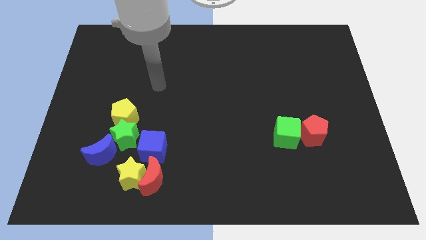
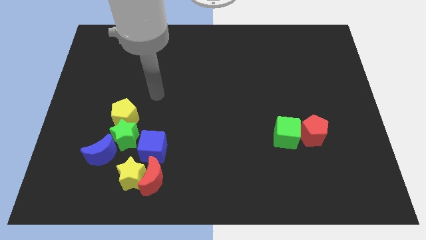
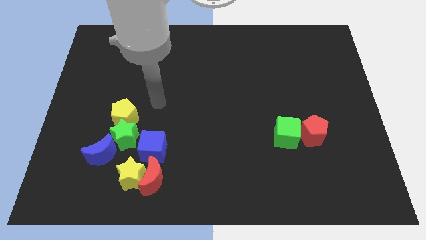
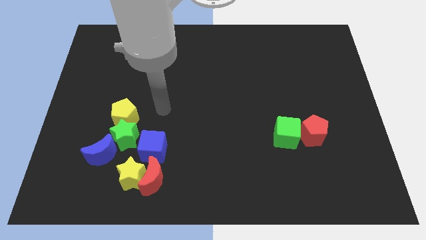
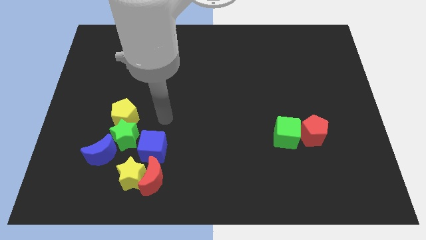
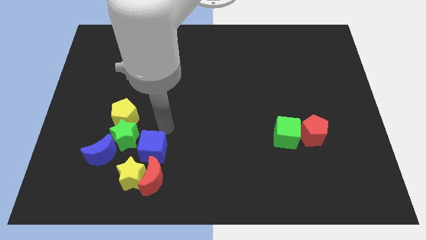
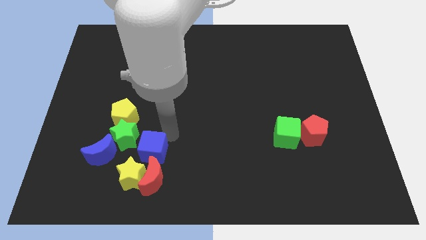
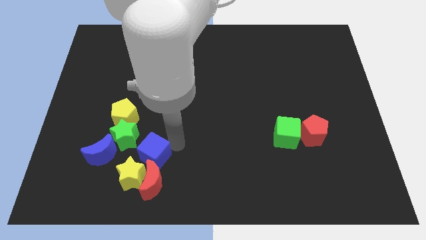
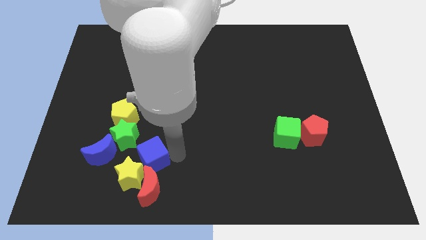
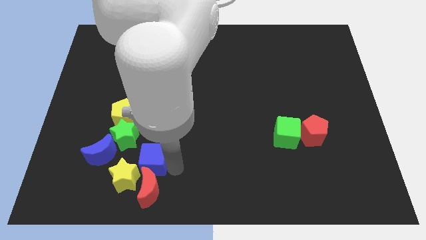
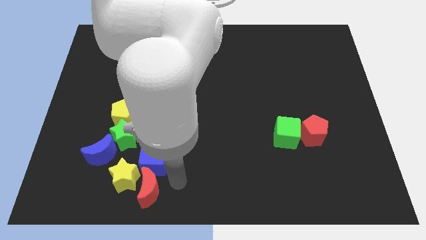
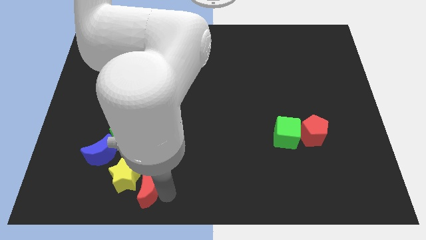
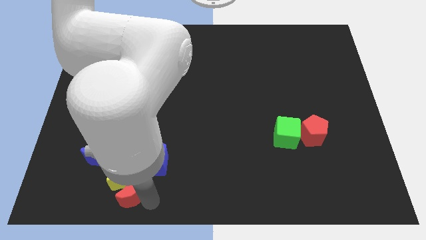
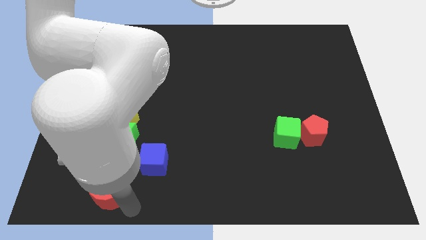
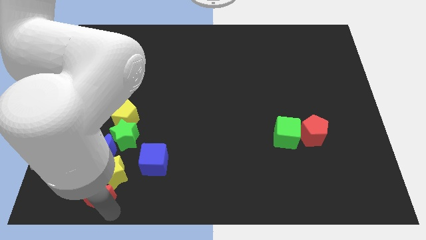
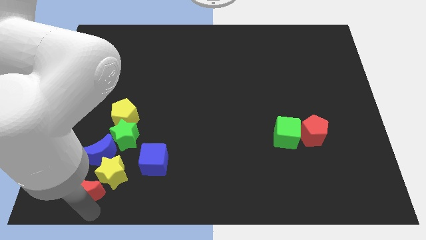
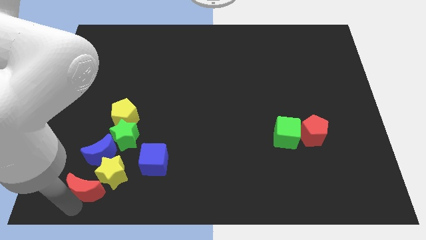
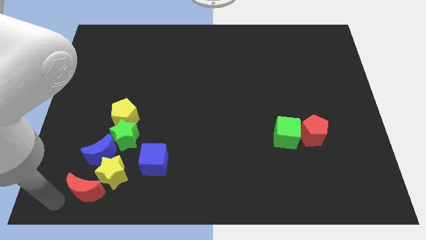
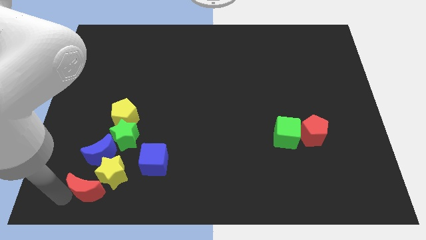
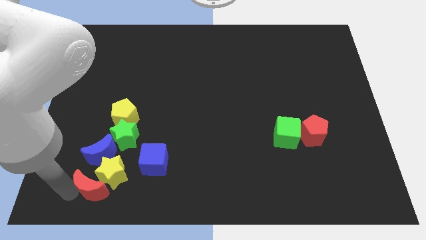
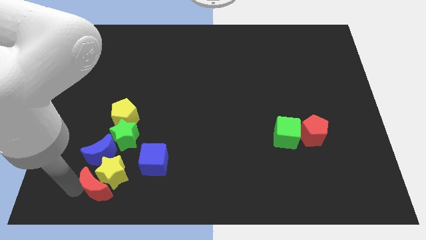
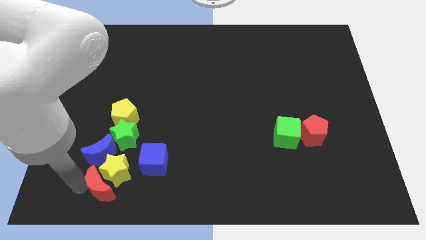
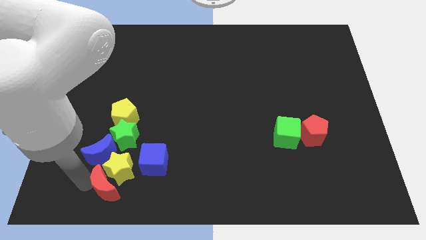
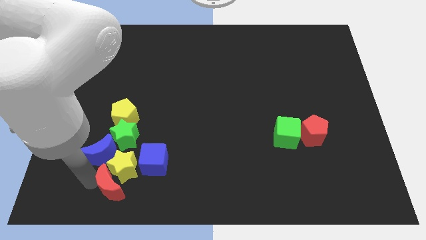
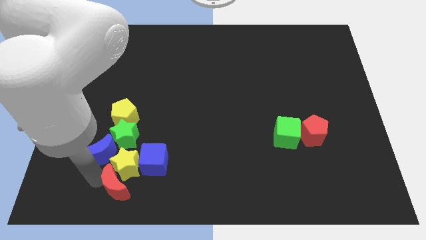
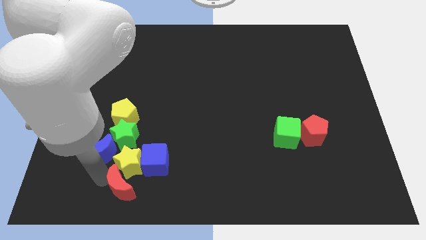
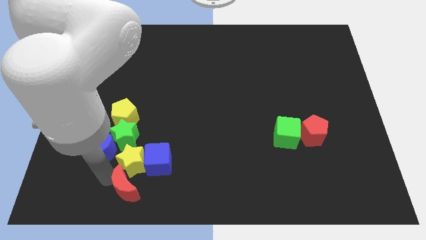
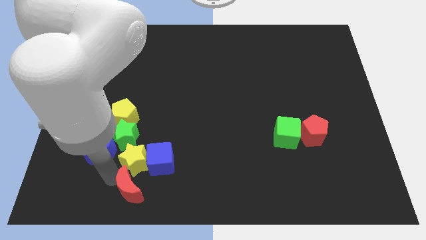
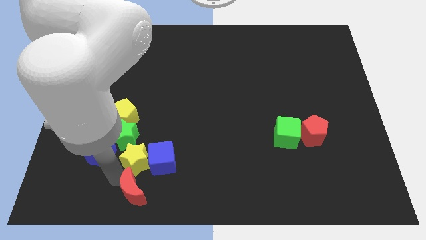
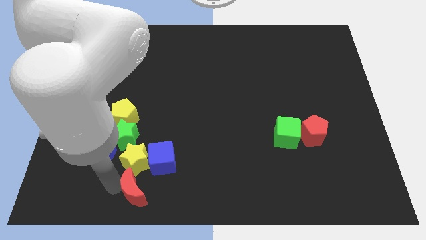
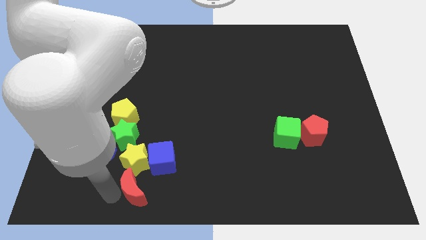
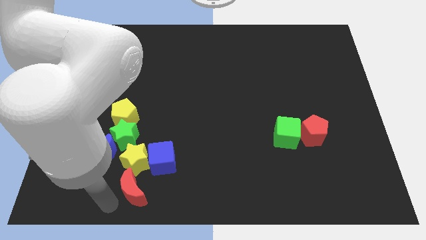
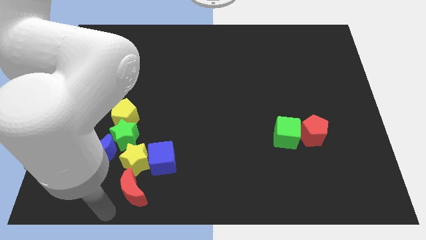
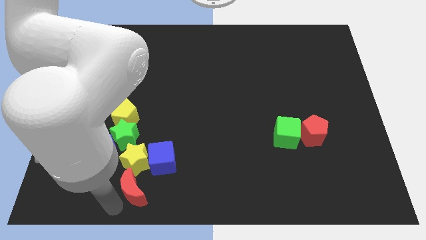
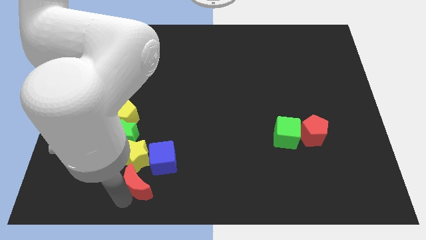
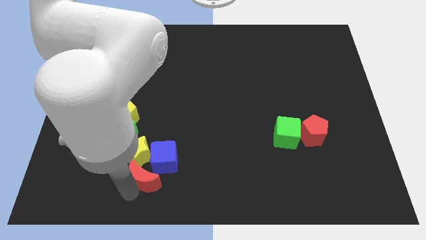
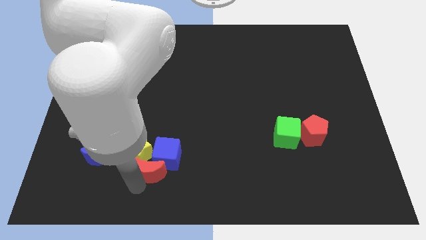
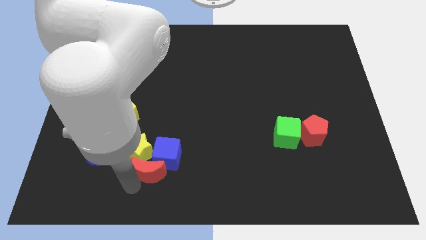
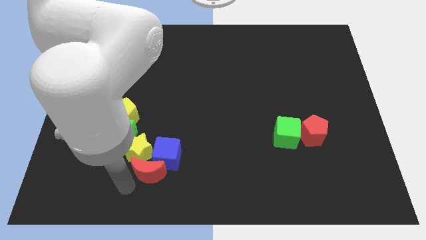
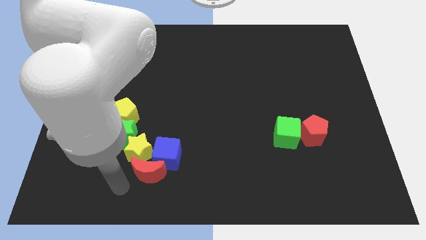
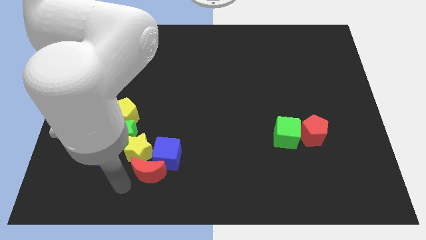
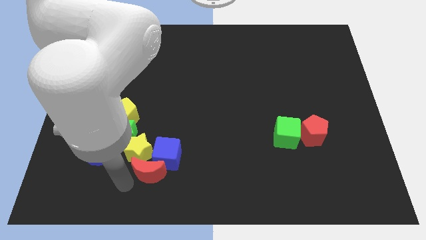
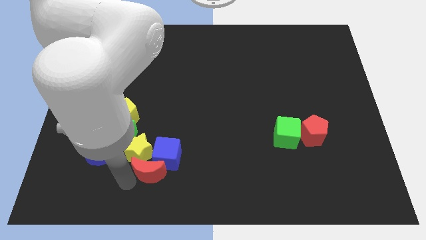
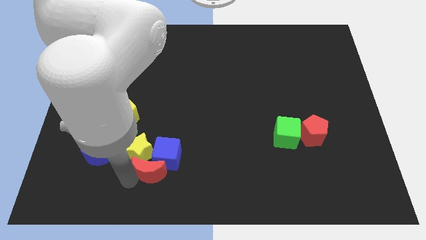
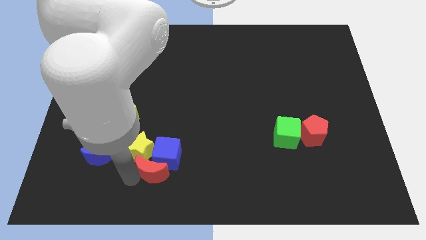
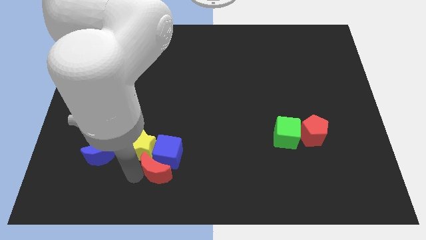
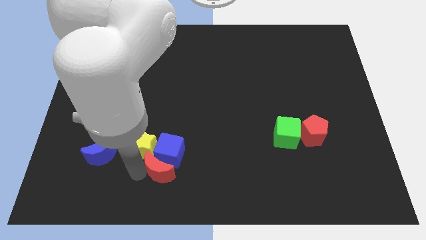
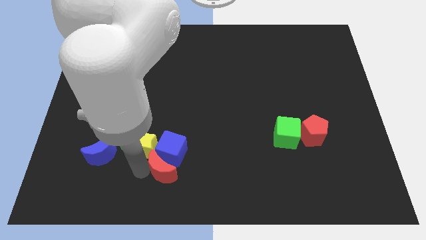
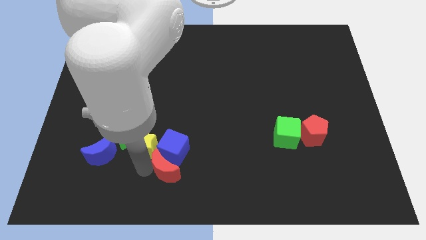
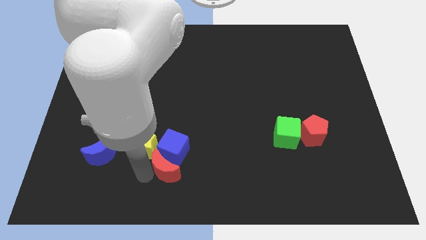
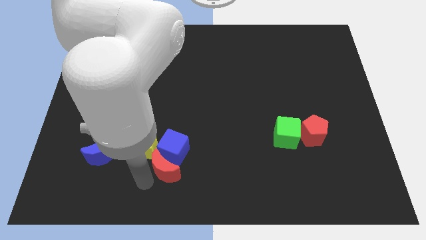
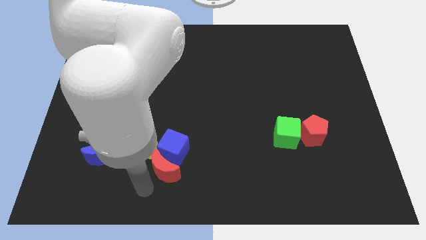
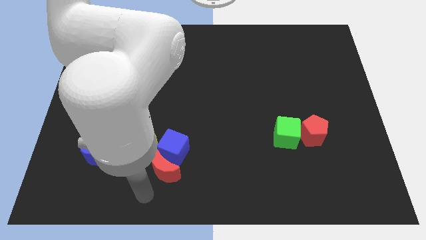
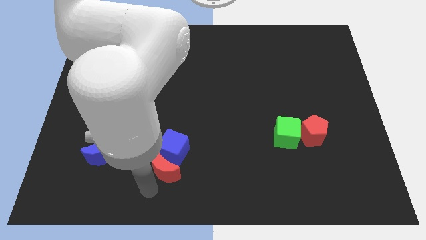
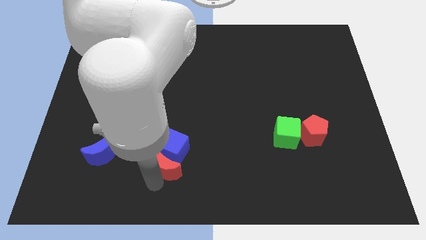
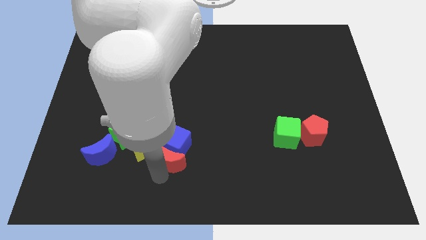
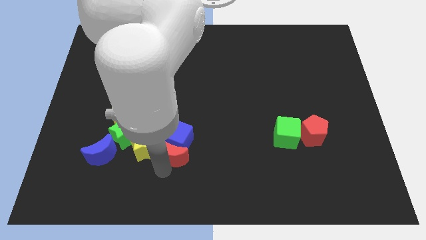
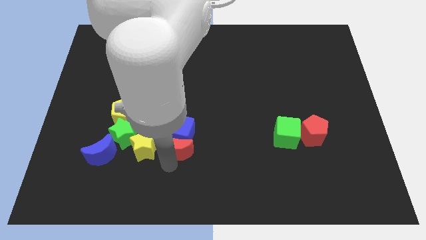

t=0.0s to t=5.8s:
move the red moon to the right of the green star

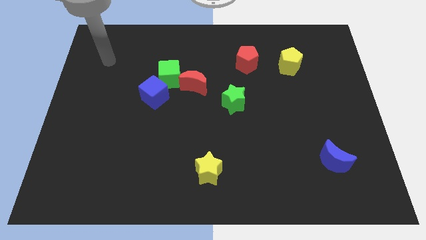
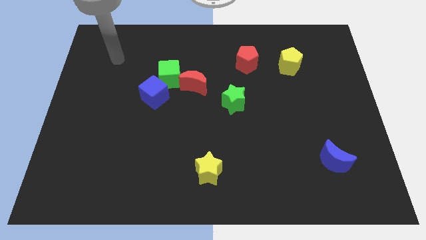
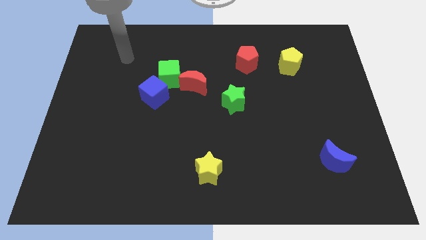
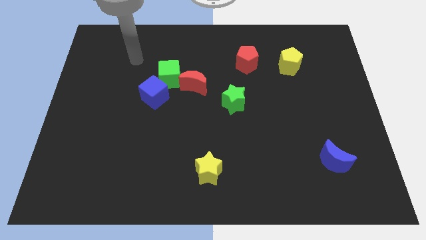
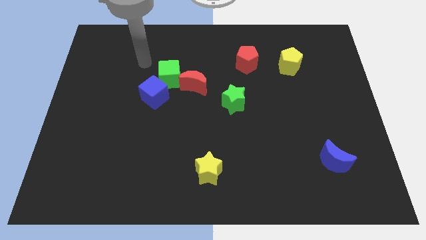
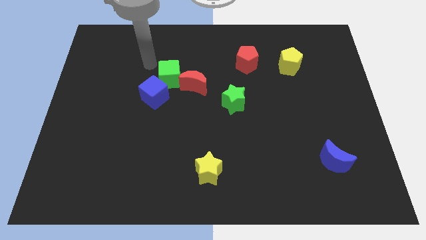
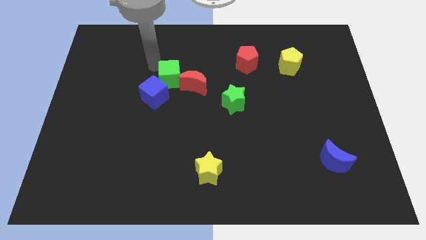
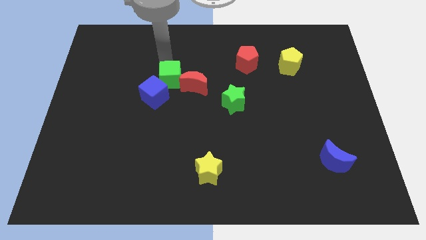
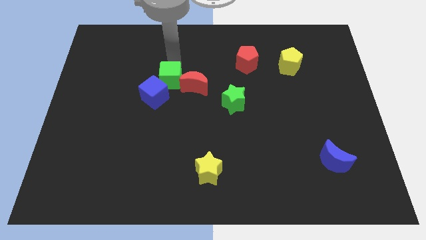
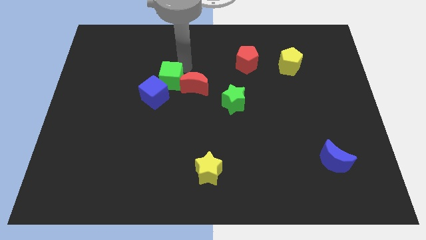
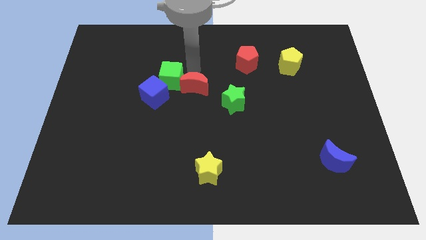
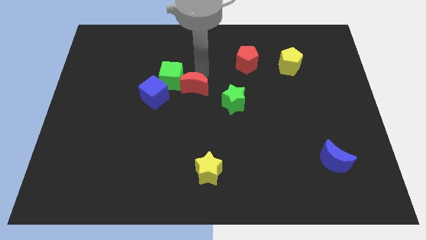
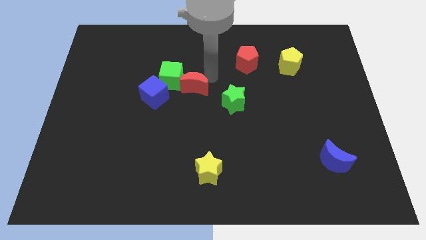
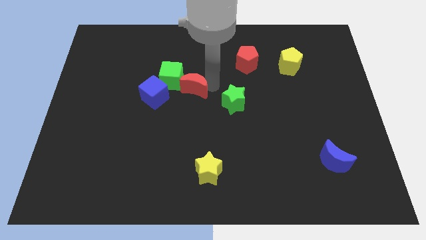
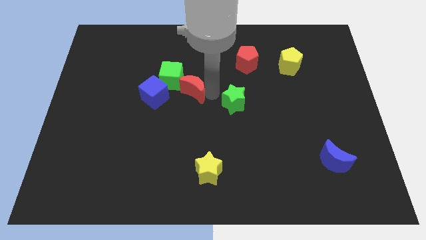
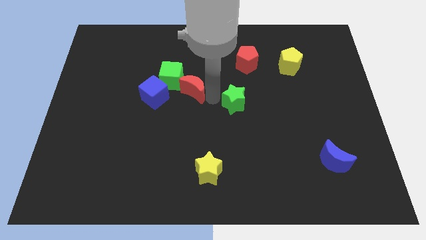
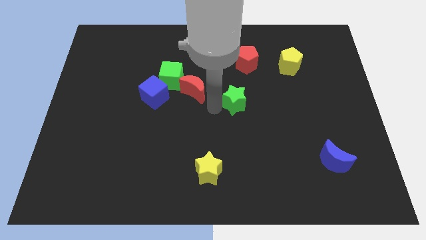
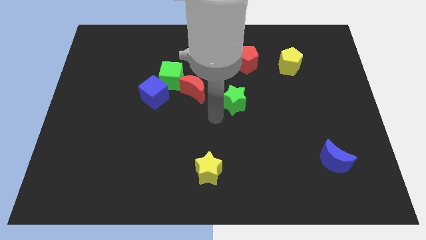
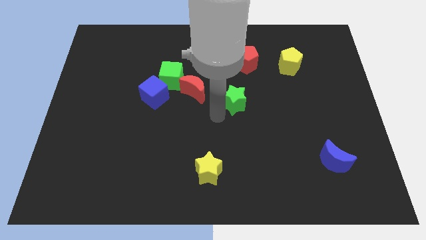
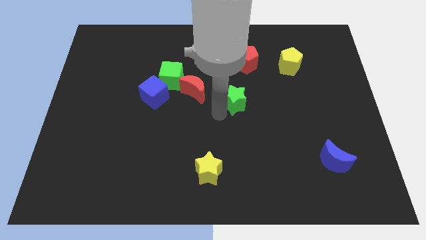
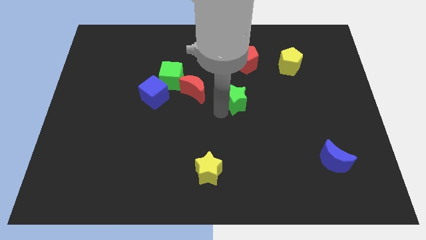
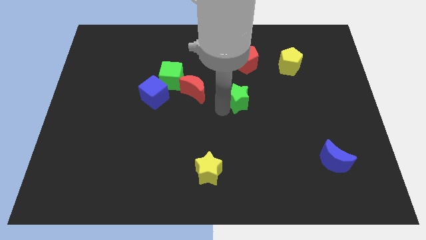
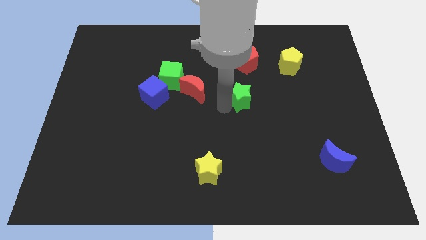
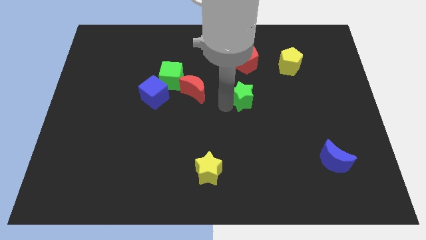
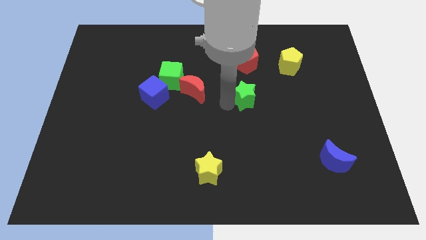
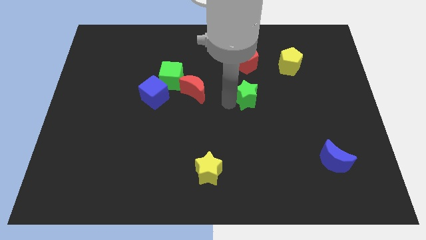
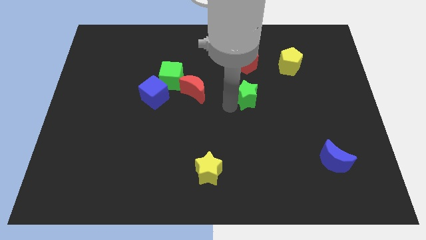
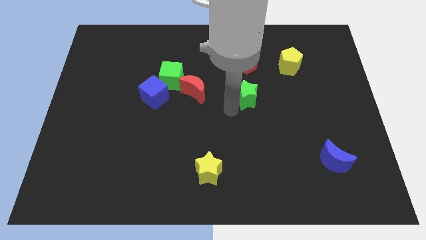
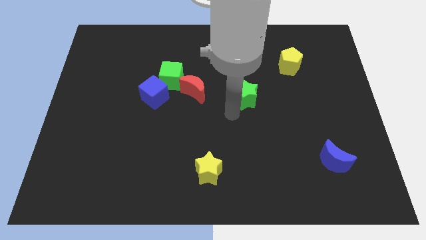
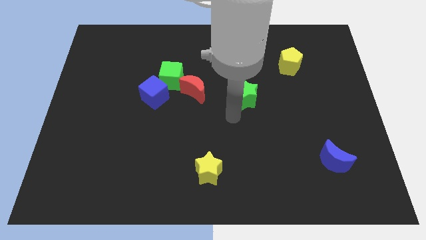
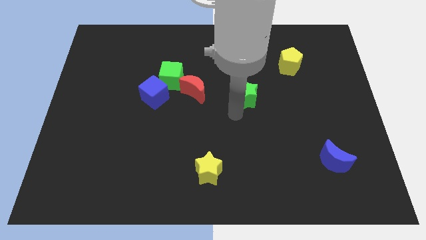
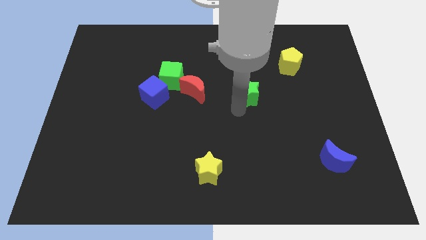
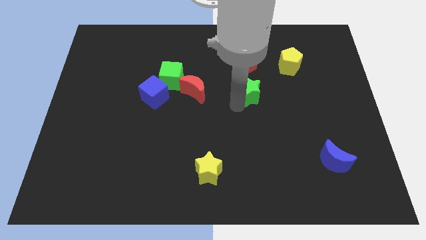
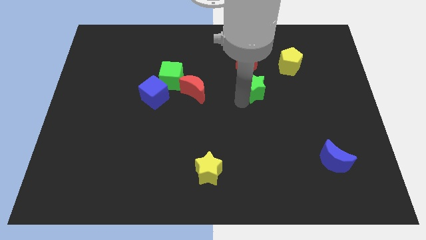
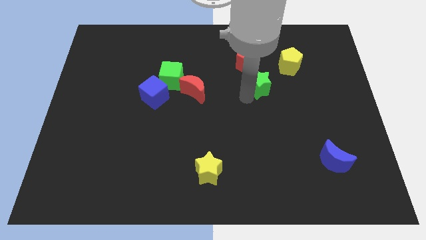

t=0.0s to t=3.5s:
slide the green star to the bottom left side of the yellow pentagon
